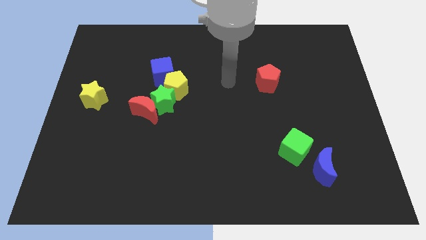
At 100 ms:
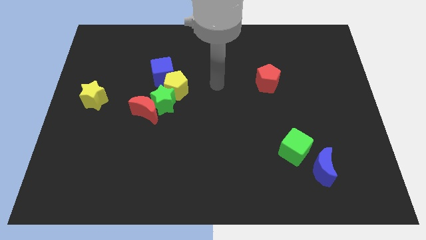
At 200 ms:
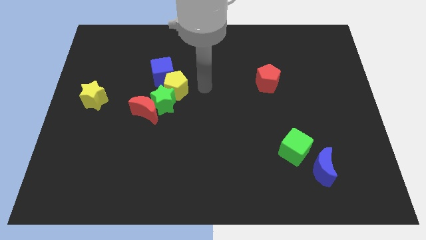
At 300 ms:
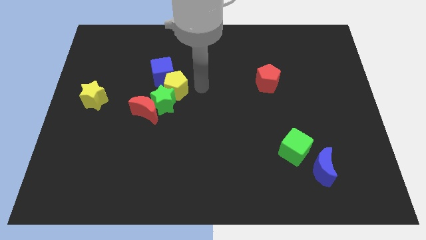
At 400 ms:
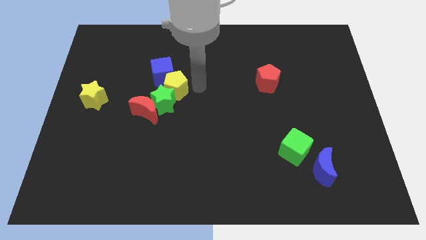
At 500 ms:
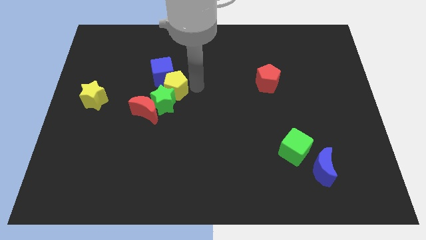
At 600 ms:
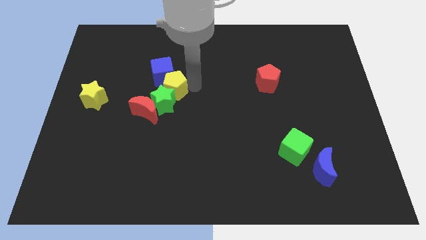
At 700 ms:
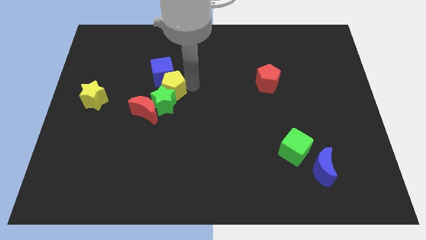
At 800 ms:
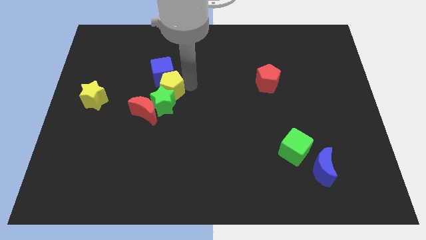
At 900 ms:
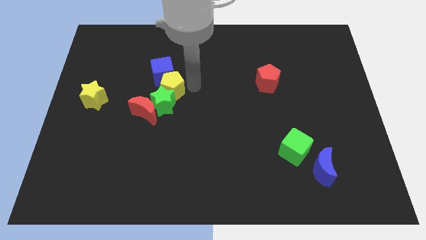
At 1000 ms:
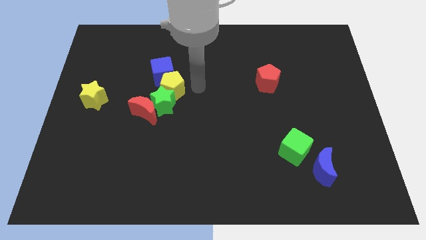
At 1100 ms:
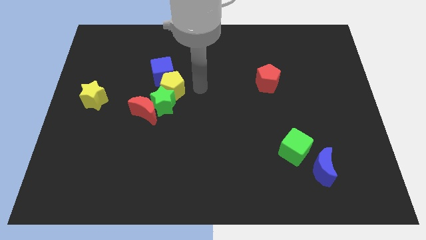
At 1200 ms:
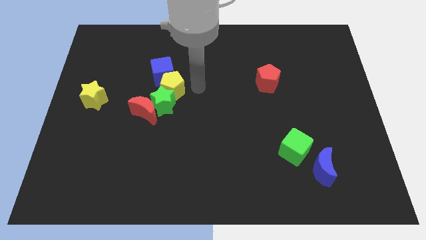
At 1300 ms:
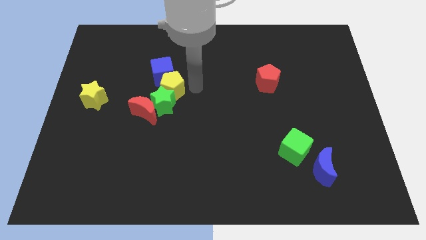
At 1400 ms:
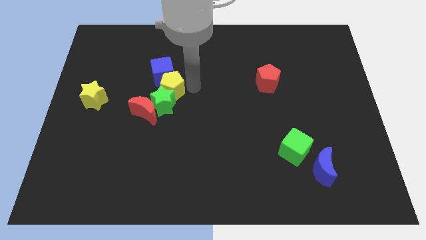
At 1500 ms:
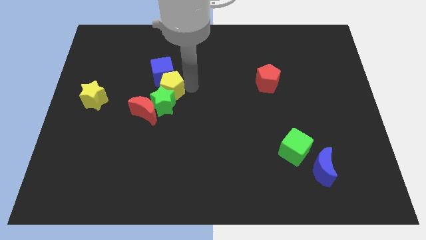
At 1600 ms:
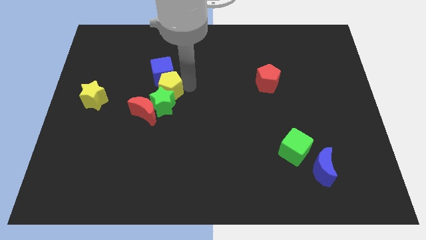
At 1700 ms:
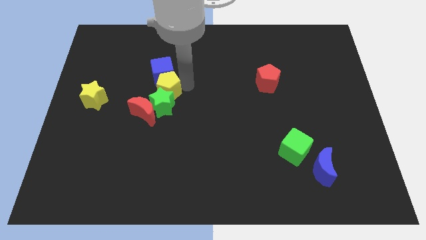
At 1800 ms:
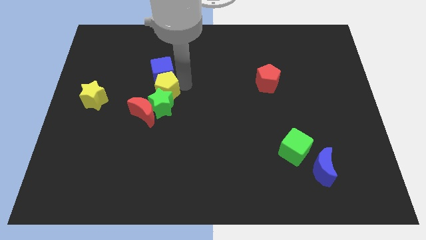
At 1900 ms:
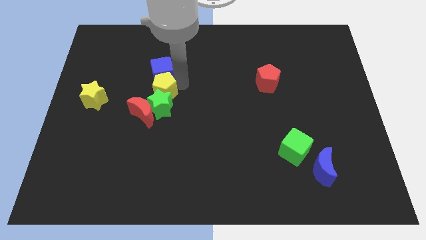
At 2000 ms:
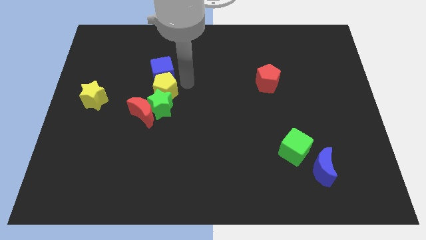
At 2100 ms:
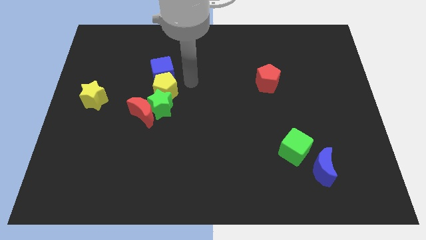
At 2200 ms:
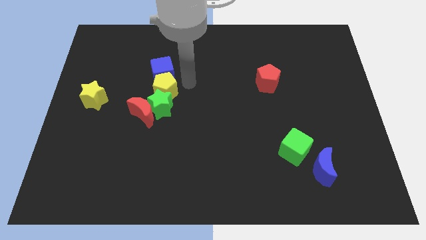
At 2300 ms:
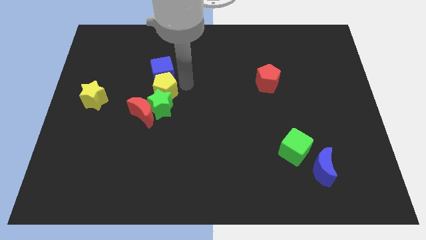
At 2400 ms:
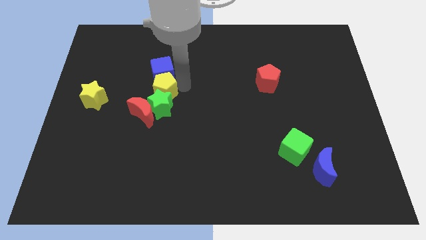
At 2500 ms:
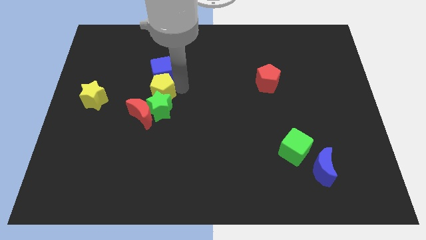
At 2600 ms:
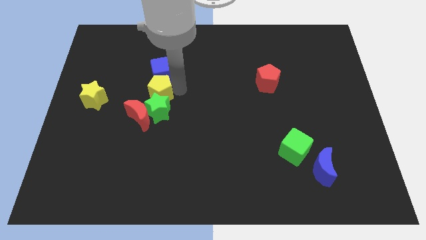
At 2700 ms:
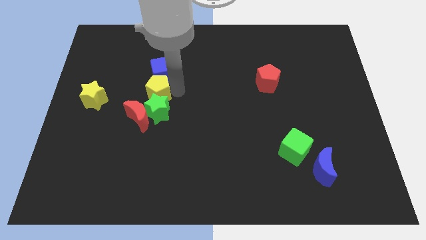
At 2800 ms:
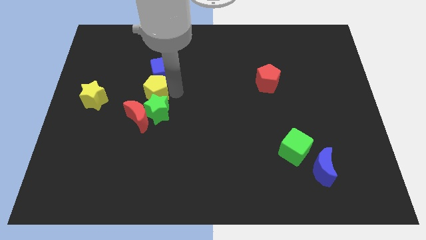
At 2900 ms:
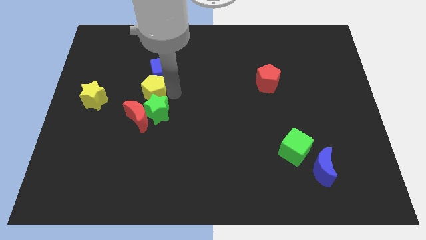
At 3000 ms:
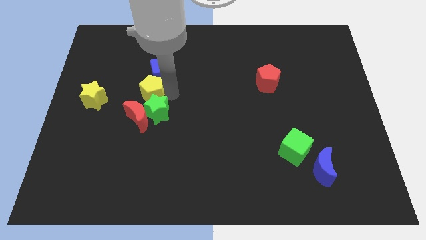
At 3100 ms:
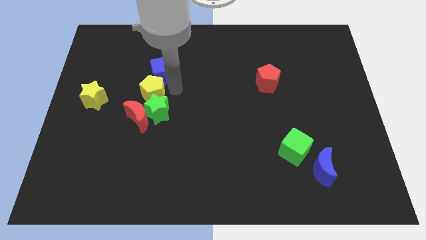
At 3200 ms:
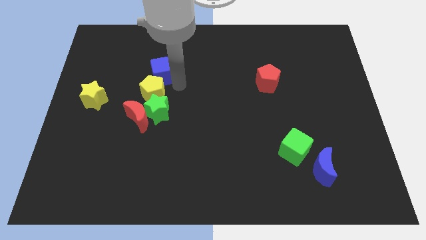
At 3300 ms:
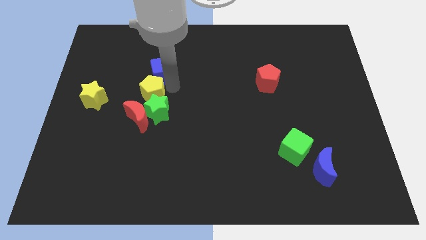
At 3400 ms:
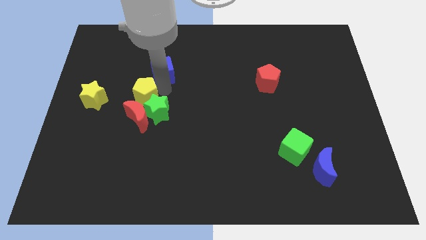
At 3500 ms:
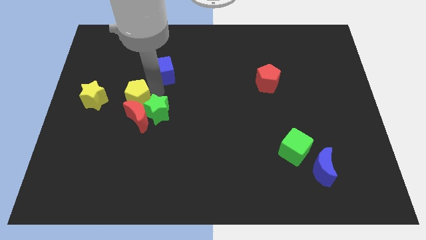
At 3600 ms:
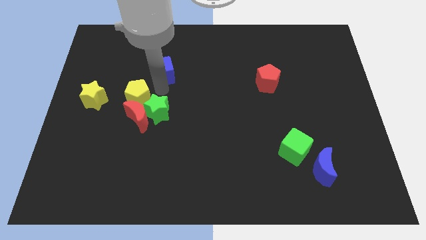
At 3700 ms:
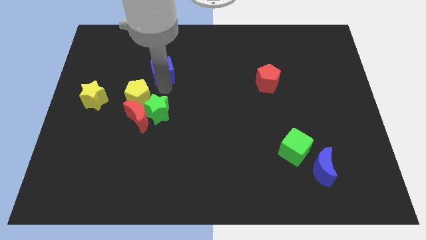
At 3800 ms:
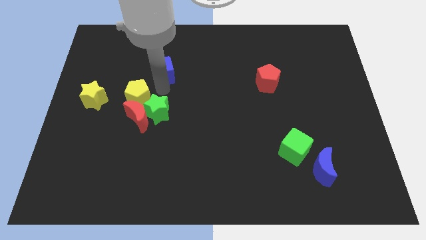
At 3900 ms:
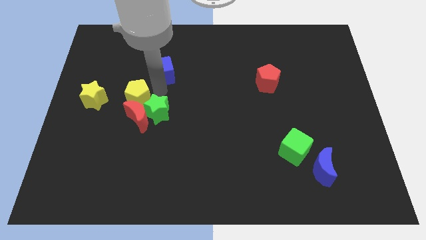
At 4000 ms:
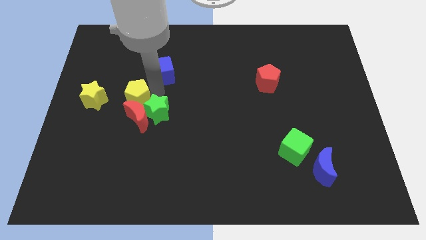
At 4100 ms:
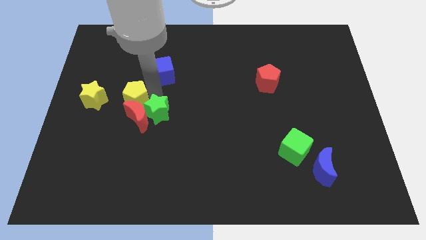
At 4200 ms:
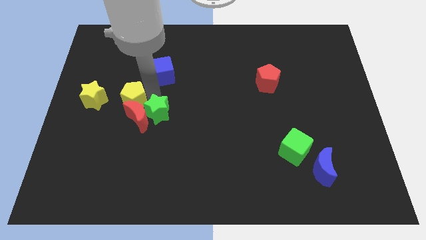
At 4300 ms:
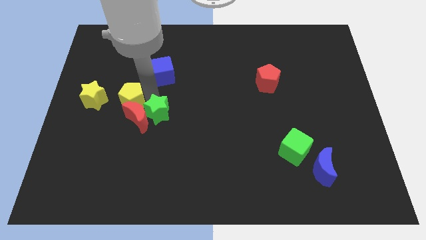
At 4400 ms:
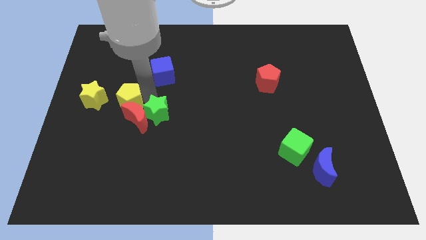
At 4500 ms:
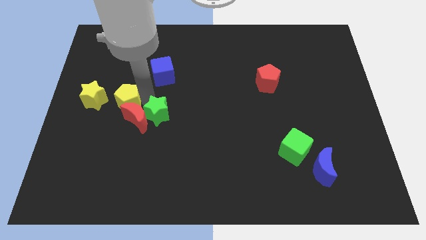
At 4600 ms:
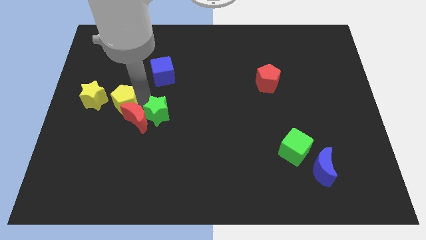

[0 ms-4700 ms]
push the yellow pentagon to the left of the red moon

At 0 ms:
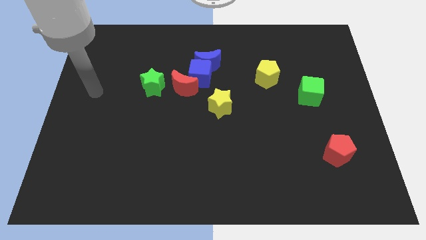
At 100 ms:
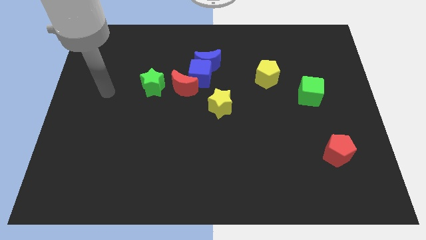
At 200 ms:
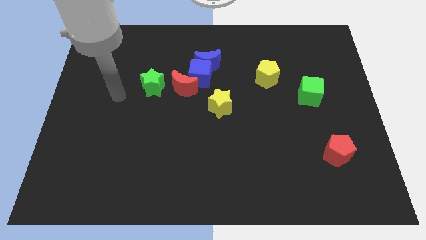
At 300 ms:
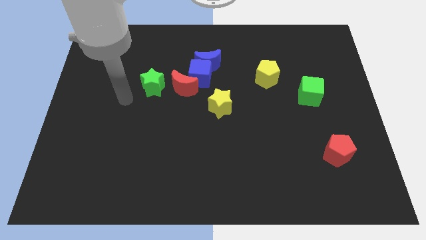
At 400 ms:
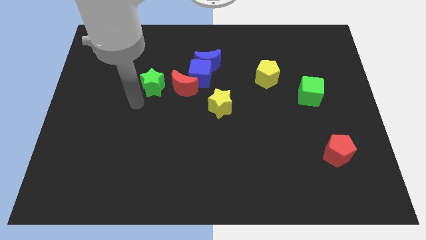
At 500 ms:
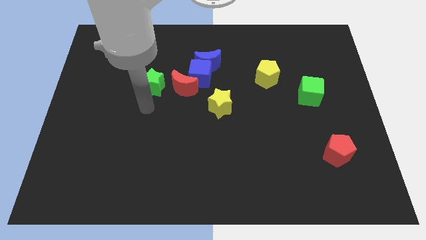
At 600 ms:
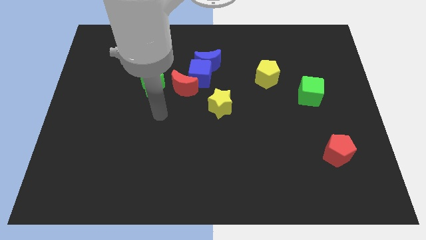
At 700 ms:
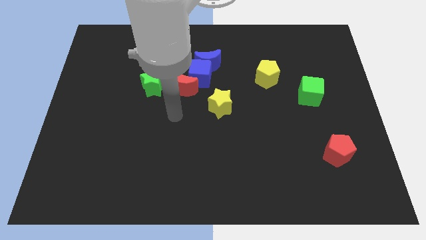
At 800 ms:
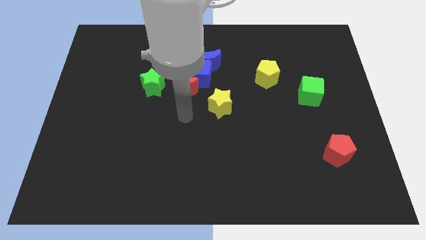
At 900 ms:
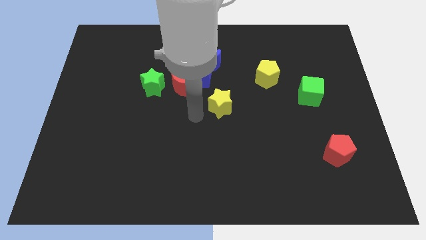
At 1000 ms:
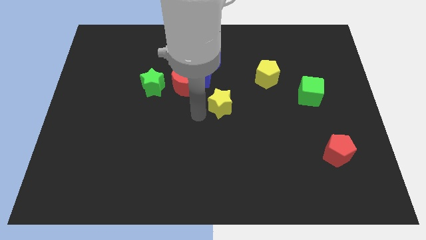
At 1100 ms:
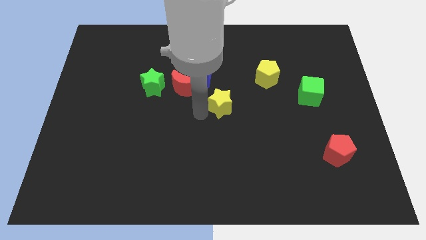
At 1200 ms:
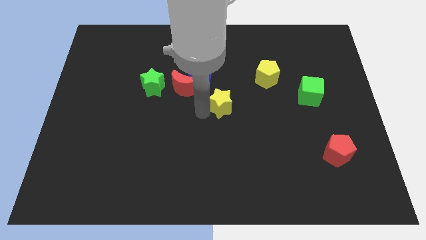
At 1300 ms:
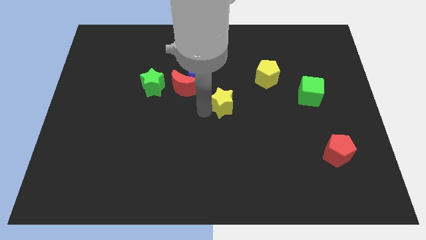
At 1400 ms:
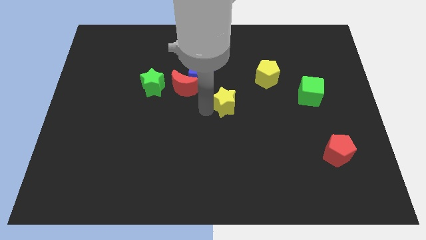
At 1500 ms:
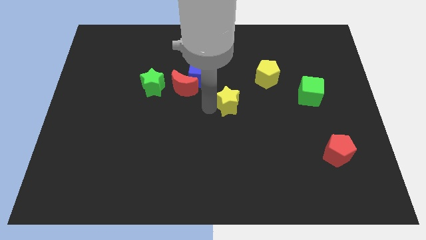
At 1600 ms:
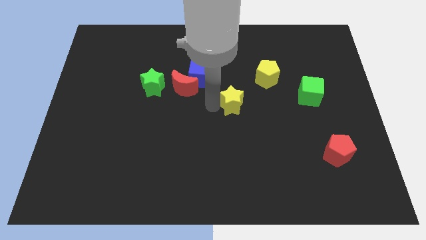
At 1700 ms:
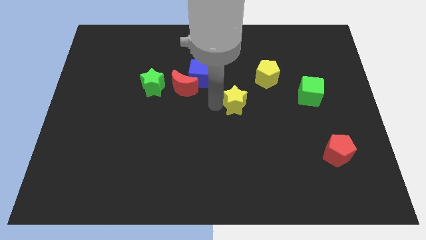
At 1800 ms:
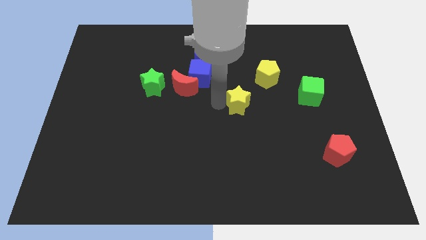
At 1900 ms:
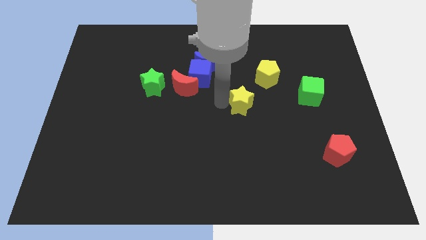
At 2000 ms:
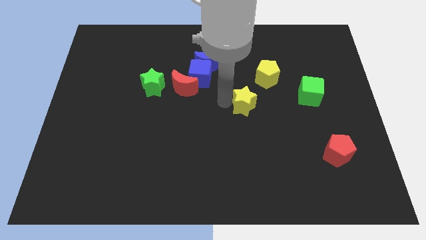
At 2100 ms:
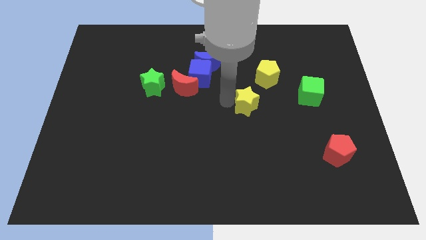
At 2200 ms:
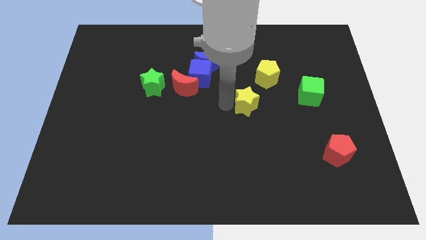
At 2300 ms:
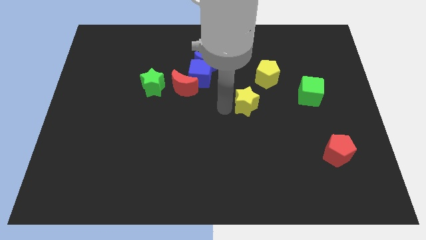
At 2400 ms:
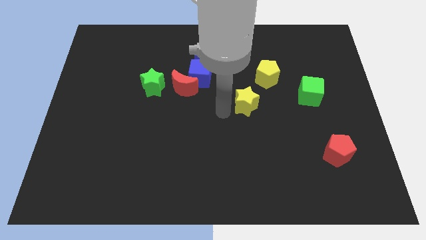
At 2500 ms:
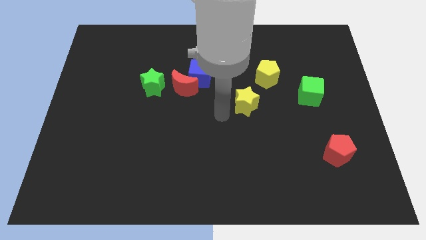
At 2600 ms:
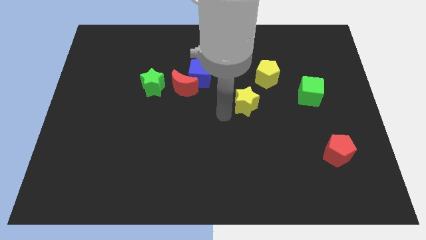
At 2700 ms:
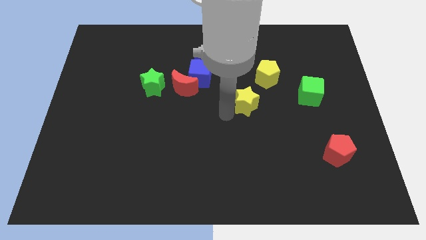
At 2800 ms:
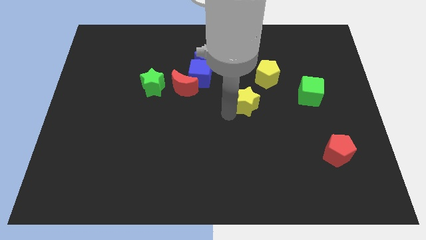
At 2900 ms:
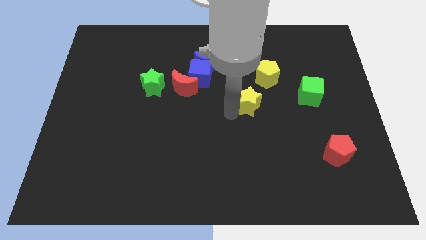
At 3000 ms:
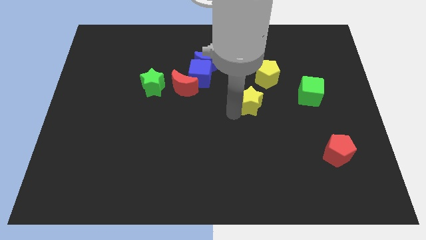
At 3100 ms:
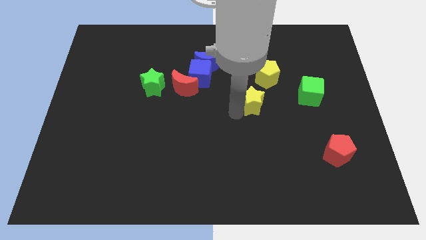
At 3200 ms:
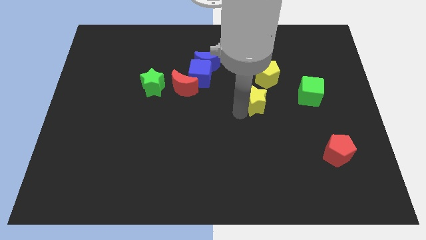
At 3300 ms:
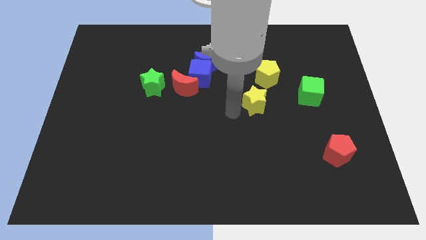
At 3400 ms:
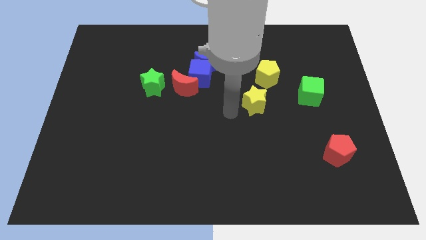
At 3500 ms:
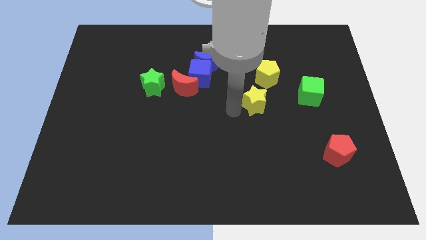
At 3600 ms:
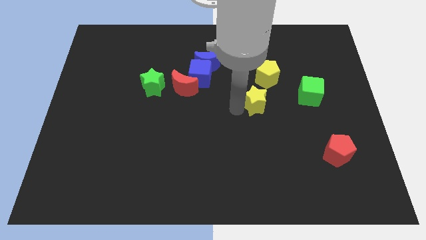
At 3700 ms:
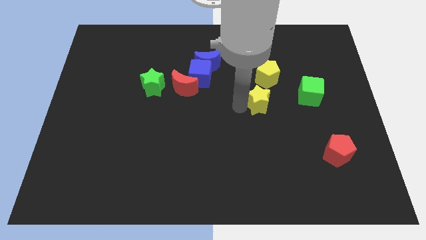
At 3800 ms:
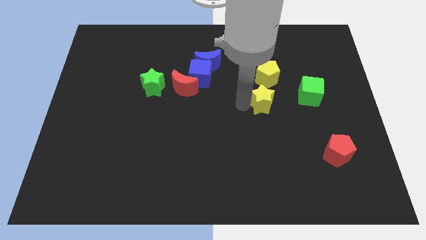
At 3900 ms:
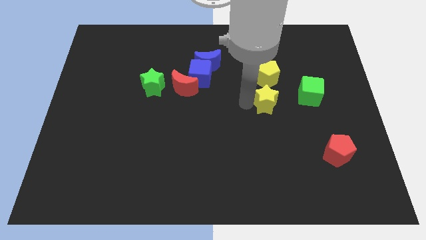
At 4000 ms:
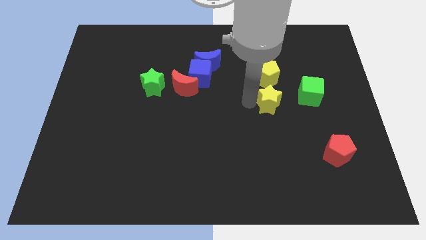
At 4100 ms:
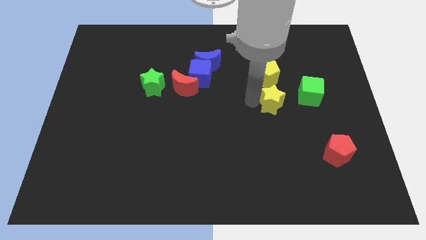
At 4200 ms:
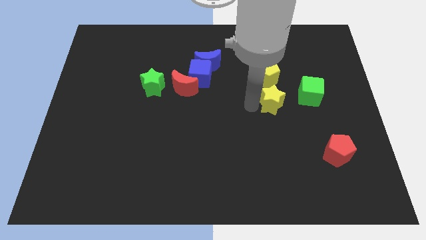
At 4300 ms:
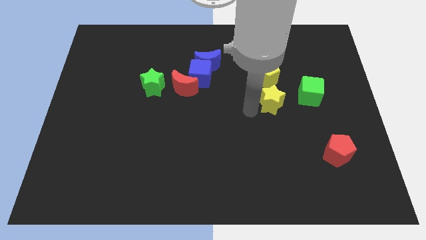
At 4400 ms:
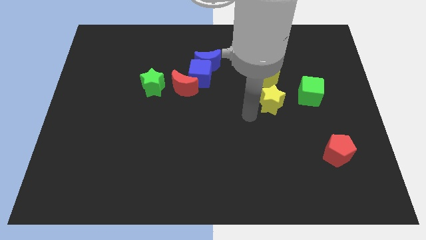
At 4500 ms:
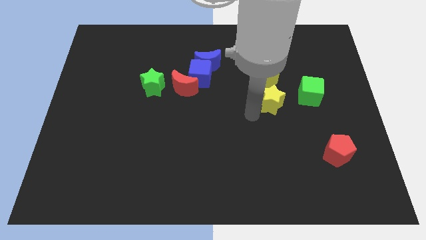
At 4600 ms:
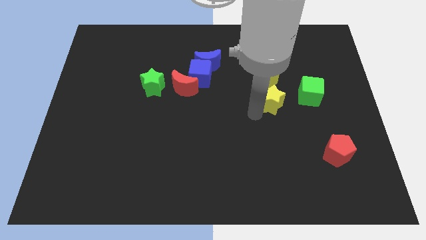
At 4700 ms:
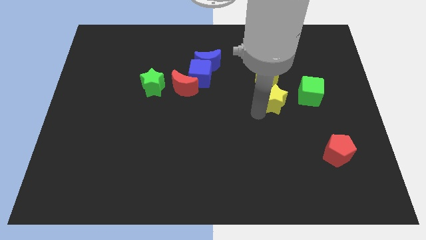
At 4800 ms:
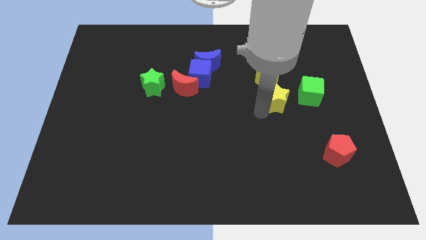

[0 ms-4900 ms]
put the yellow star to the bottom right of the yellow pentagon
